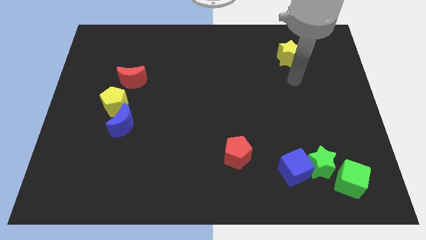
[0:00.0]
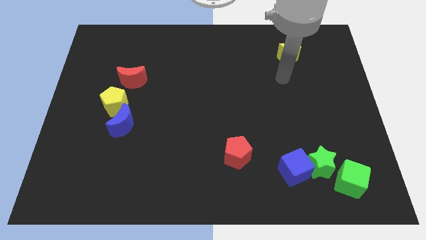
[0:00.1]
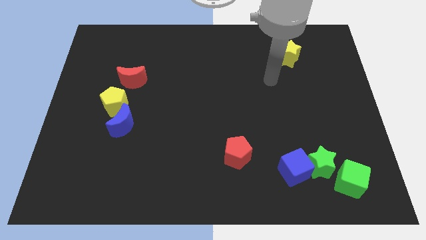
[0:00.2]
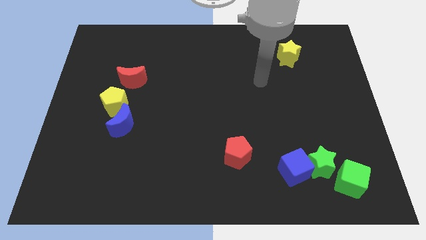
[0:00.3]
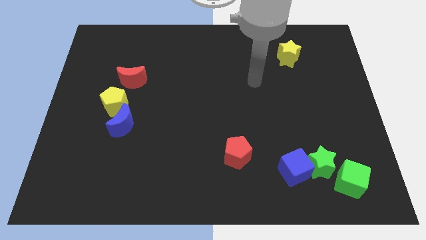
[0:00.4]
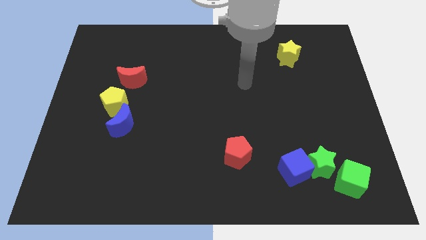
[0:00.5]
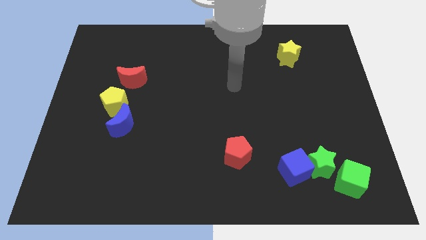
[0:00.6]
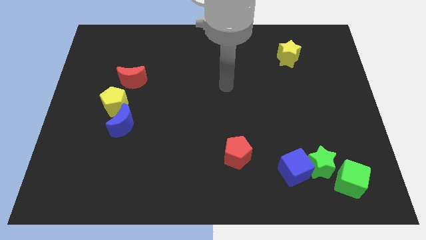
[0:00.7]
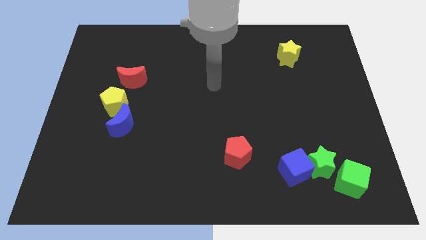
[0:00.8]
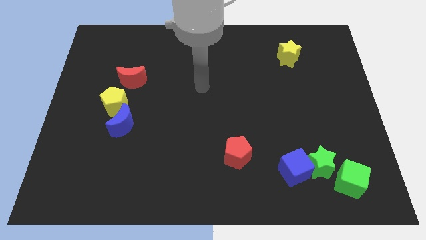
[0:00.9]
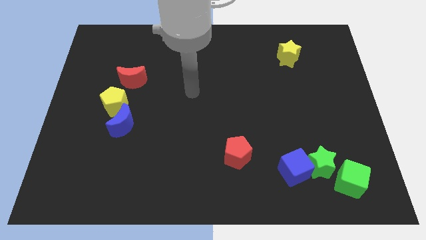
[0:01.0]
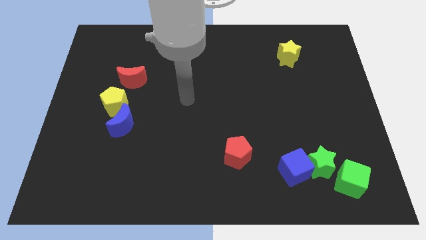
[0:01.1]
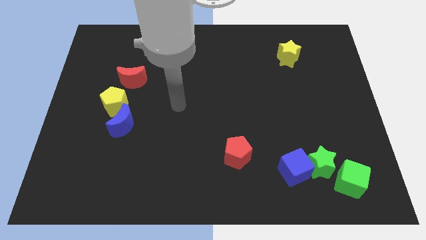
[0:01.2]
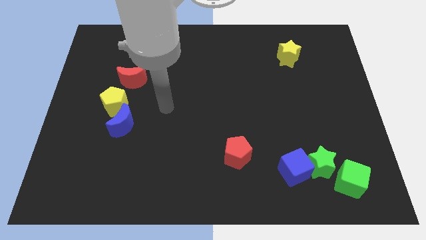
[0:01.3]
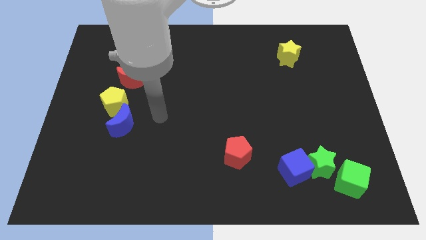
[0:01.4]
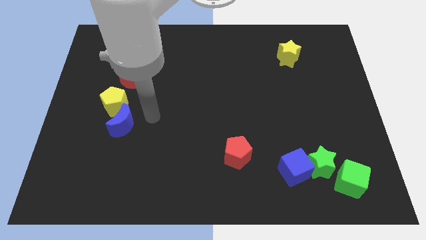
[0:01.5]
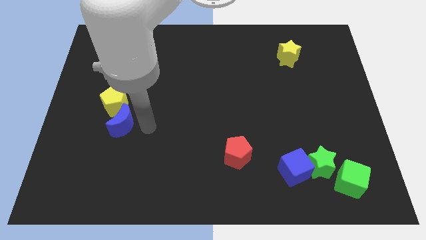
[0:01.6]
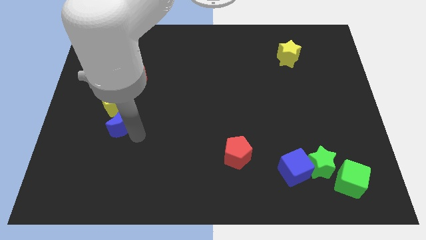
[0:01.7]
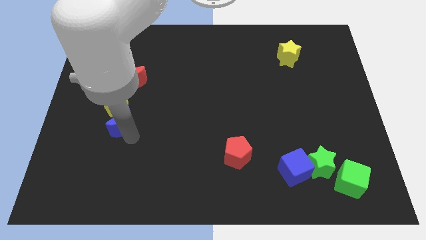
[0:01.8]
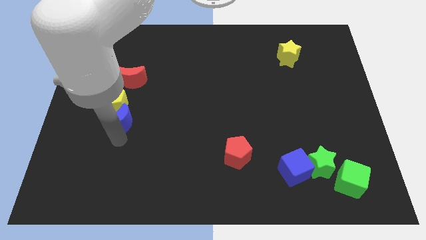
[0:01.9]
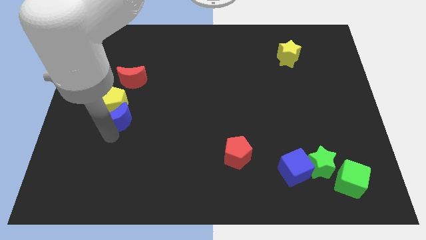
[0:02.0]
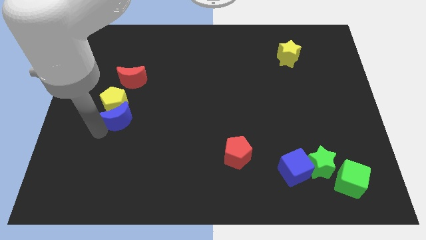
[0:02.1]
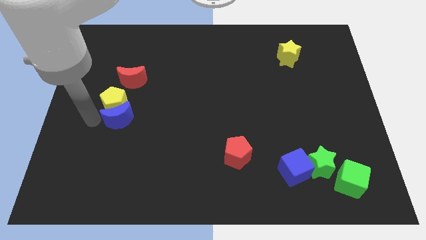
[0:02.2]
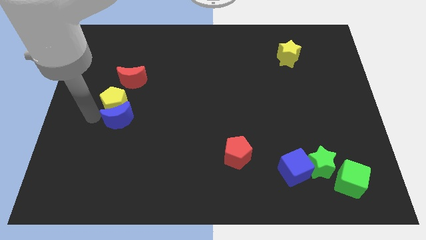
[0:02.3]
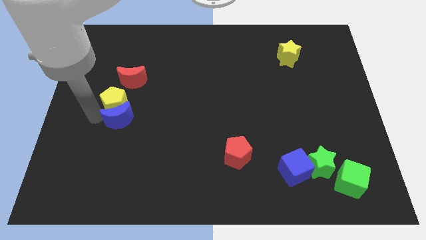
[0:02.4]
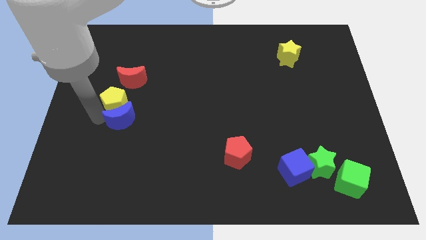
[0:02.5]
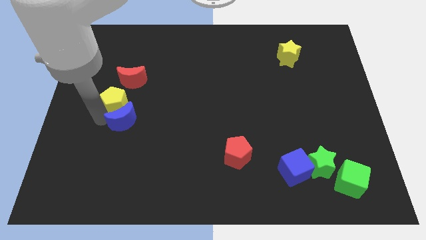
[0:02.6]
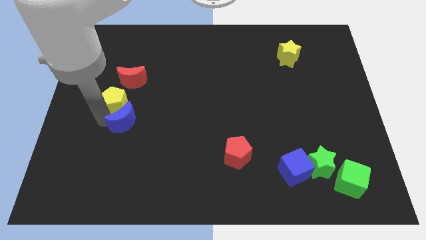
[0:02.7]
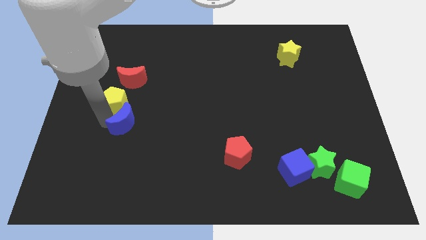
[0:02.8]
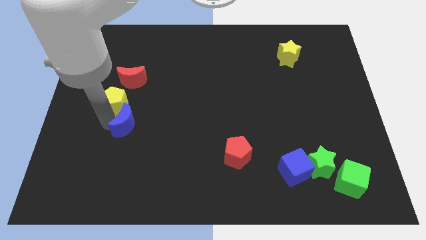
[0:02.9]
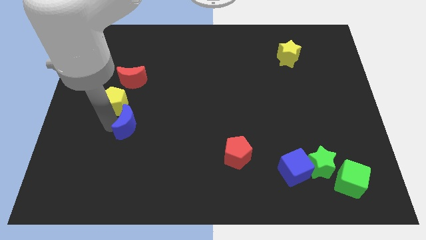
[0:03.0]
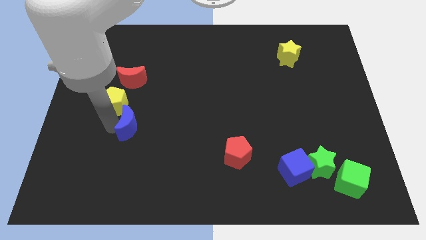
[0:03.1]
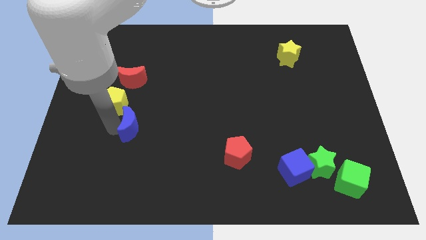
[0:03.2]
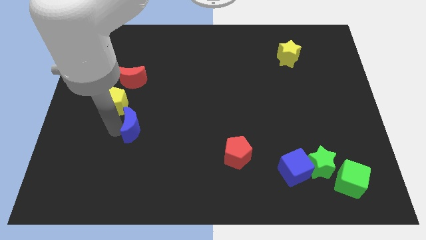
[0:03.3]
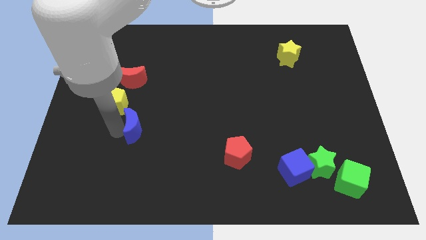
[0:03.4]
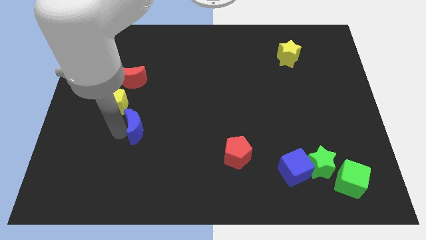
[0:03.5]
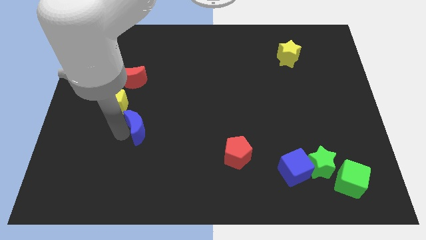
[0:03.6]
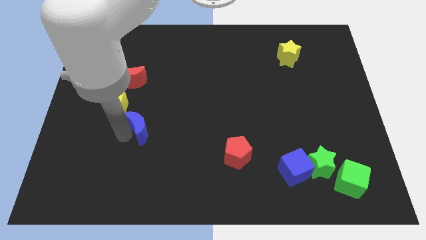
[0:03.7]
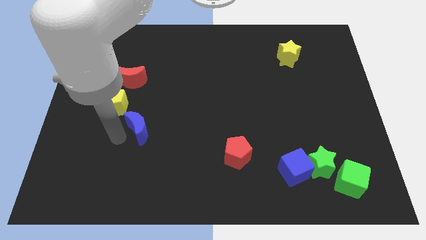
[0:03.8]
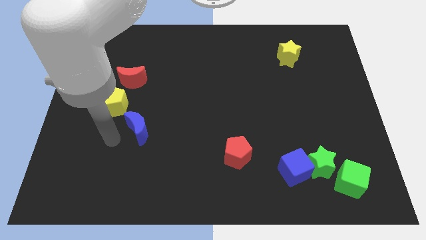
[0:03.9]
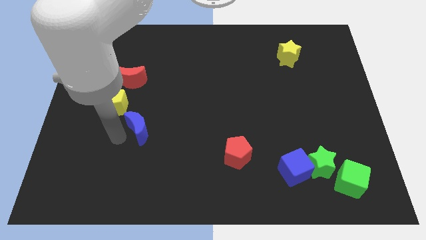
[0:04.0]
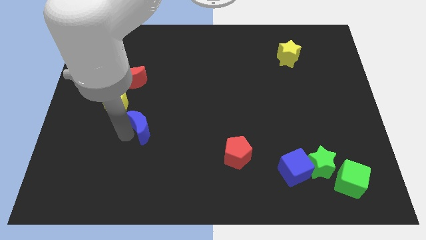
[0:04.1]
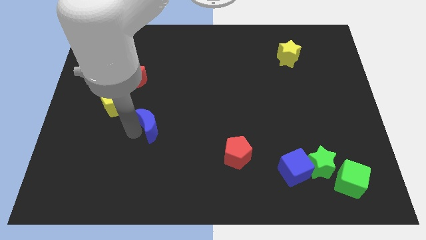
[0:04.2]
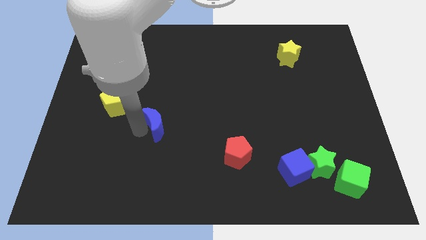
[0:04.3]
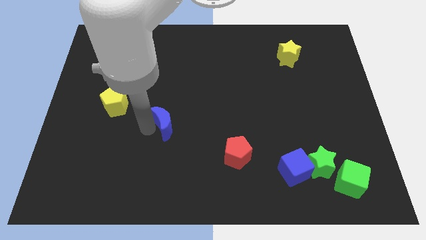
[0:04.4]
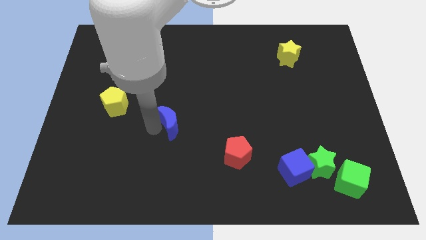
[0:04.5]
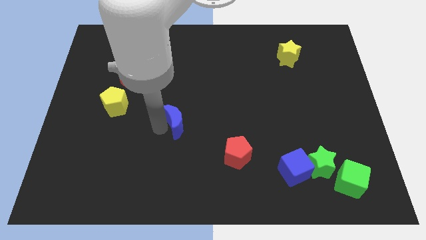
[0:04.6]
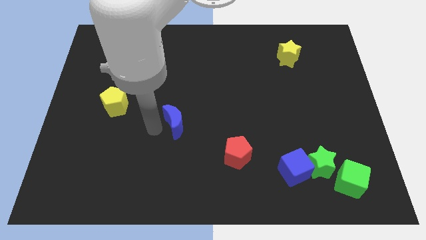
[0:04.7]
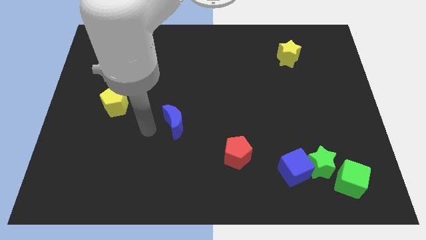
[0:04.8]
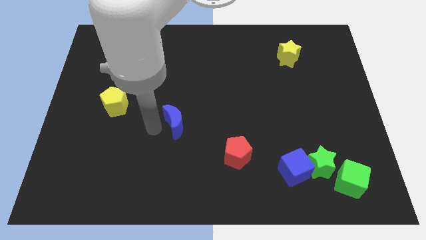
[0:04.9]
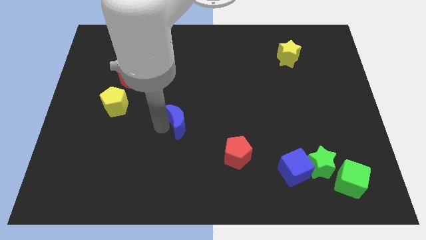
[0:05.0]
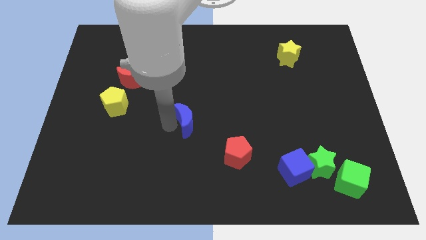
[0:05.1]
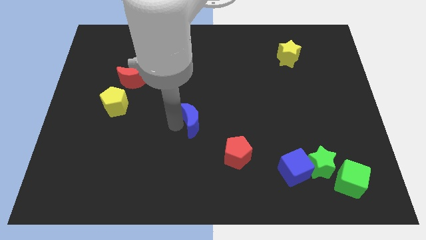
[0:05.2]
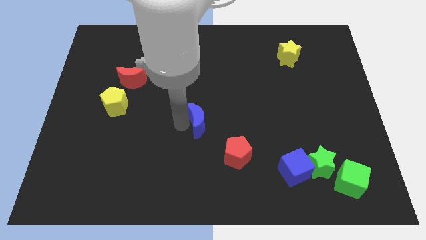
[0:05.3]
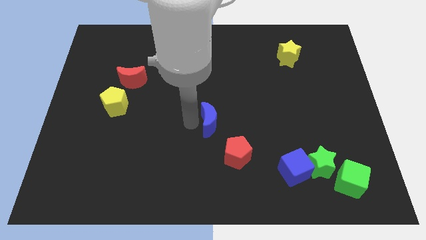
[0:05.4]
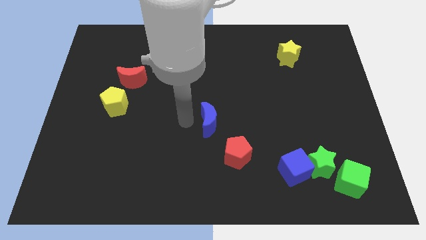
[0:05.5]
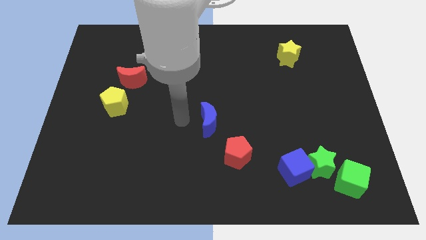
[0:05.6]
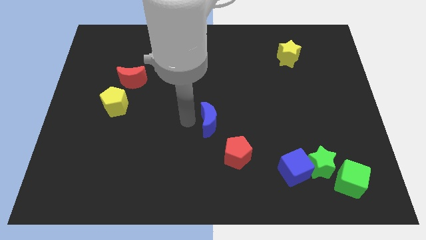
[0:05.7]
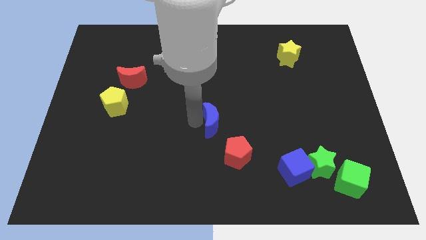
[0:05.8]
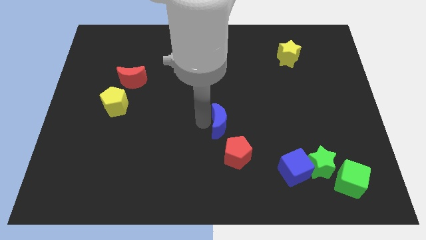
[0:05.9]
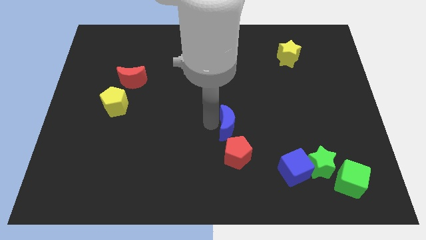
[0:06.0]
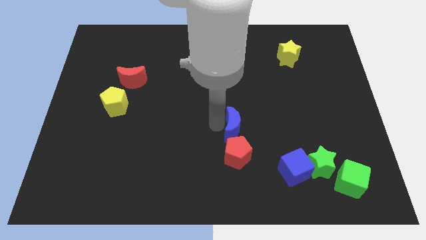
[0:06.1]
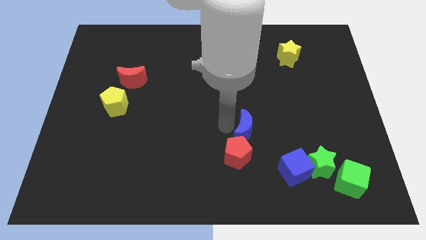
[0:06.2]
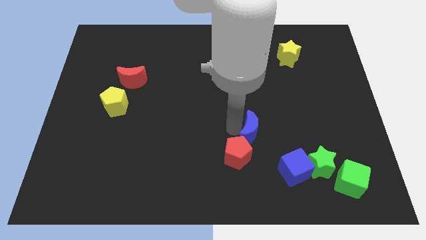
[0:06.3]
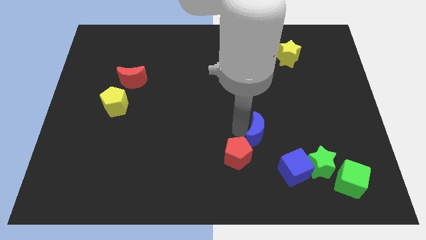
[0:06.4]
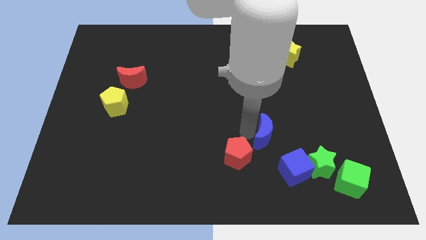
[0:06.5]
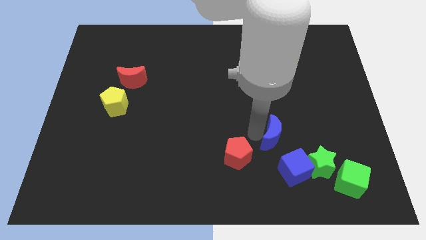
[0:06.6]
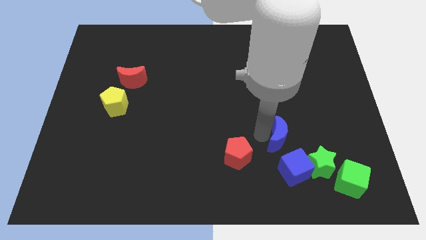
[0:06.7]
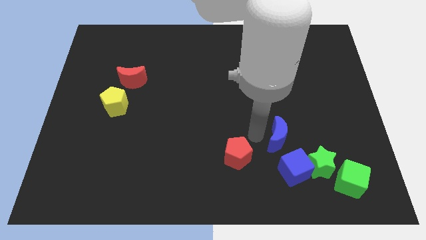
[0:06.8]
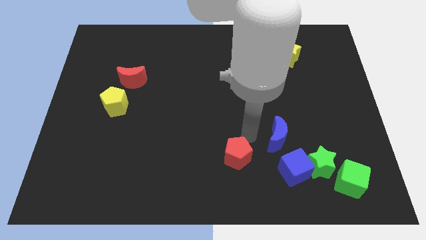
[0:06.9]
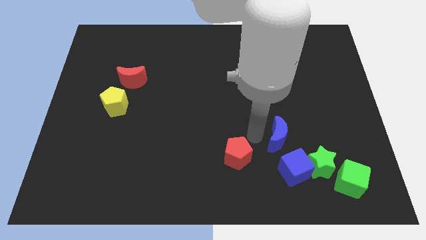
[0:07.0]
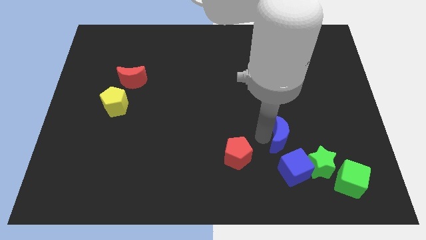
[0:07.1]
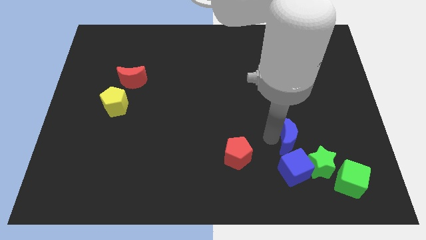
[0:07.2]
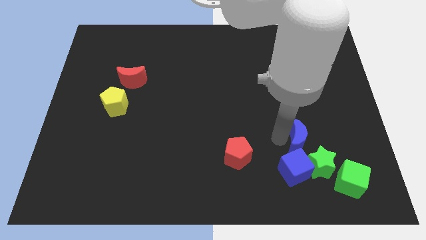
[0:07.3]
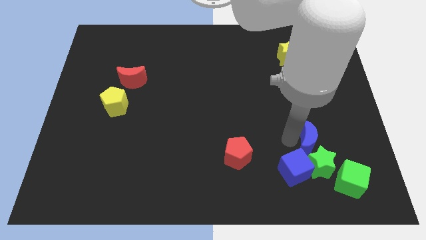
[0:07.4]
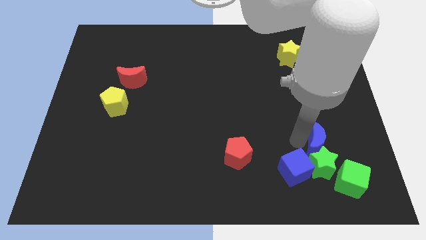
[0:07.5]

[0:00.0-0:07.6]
put the blue moon diagonally up and to the right of the green star
